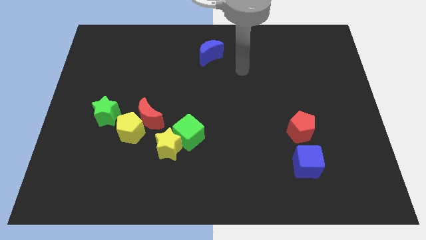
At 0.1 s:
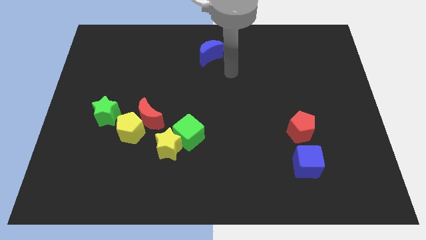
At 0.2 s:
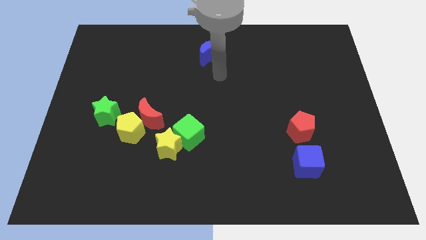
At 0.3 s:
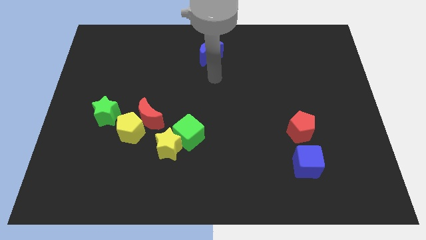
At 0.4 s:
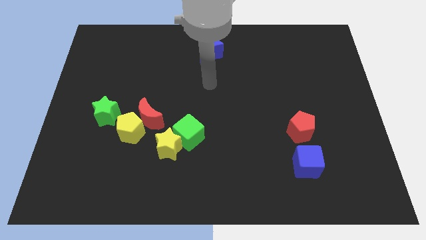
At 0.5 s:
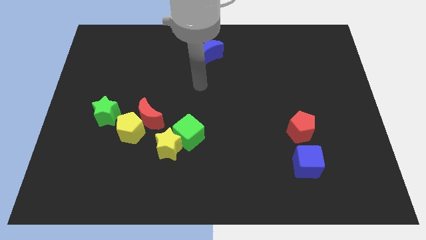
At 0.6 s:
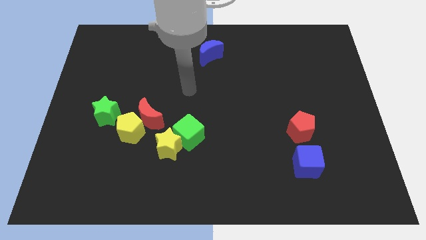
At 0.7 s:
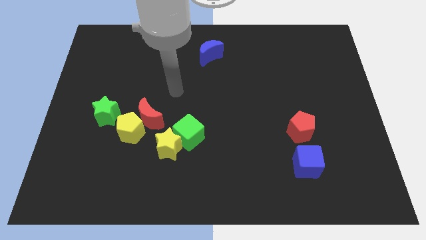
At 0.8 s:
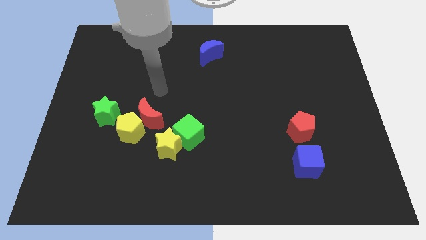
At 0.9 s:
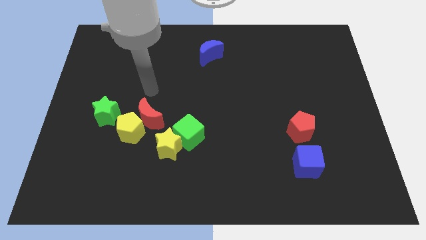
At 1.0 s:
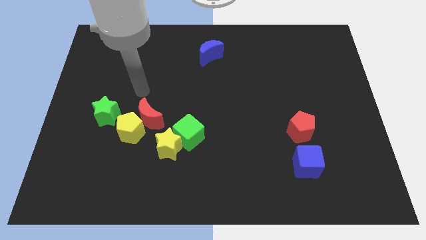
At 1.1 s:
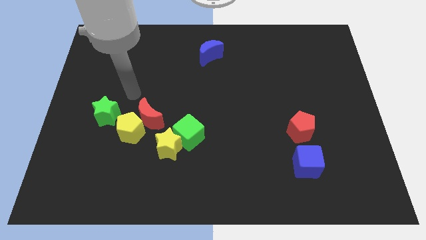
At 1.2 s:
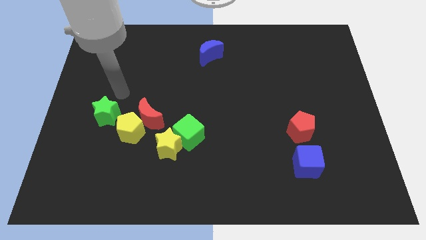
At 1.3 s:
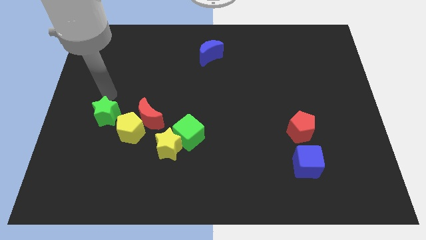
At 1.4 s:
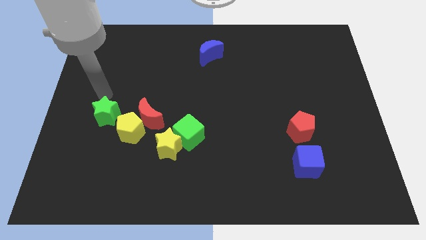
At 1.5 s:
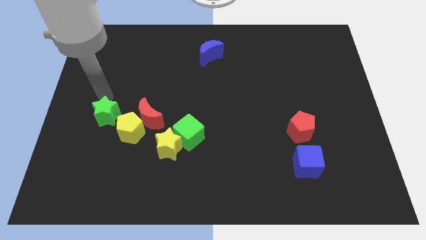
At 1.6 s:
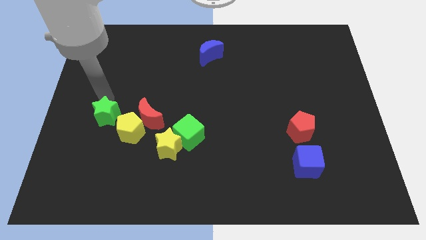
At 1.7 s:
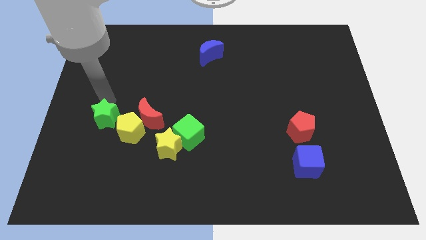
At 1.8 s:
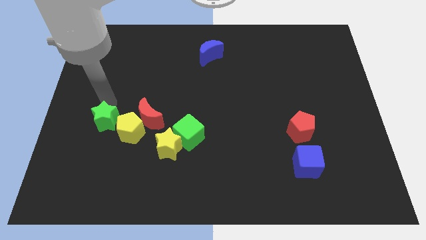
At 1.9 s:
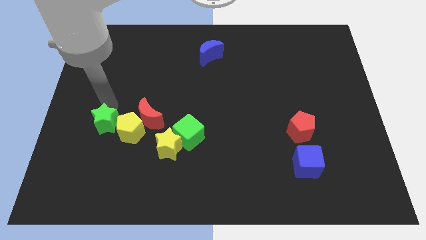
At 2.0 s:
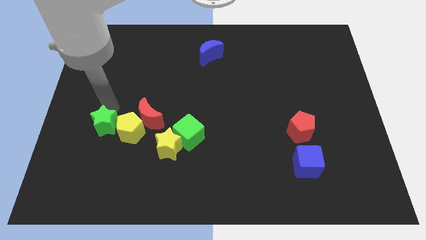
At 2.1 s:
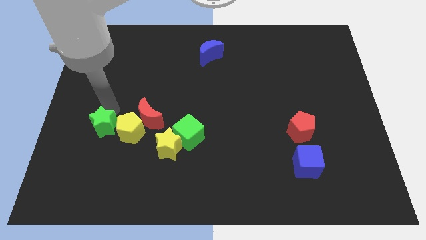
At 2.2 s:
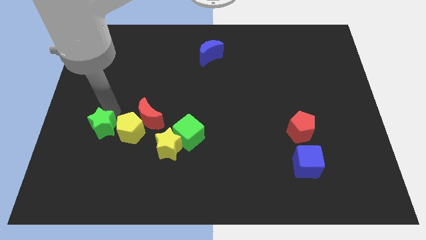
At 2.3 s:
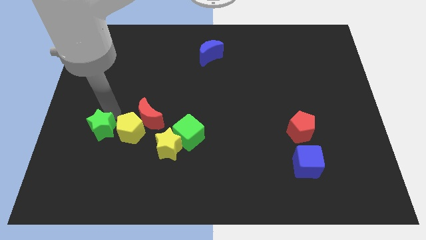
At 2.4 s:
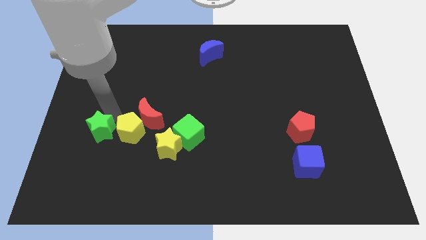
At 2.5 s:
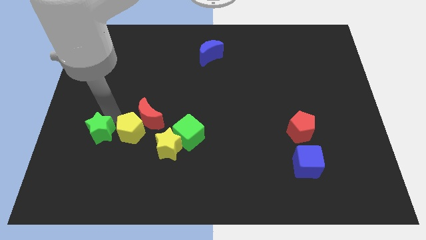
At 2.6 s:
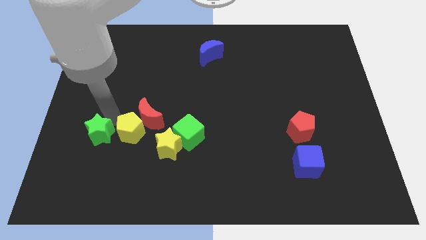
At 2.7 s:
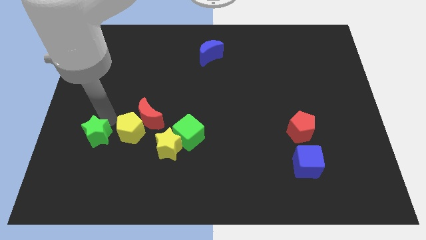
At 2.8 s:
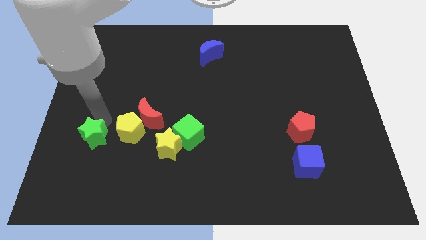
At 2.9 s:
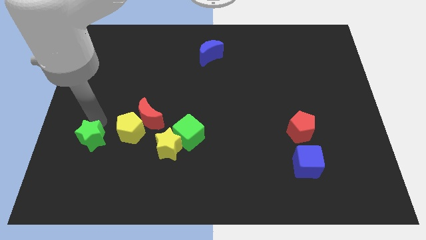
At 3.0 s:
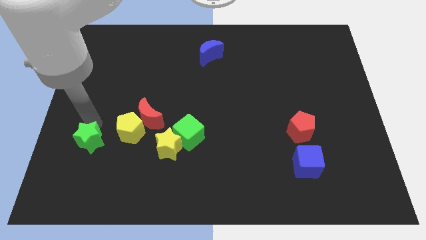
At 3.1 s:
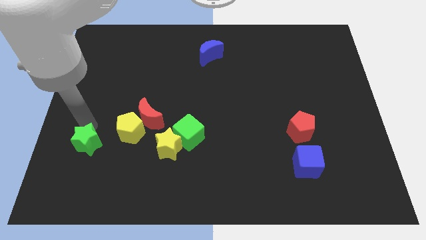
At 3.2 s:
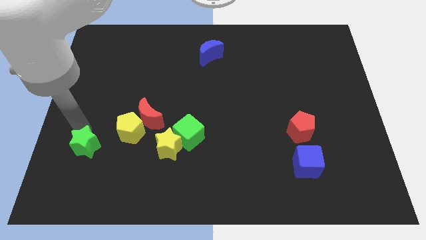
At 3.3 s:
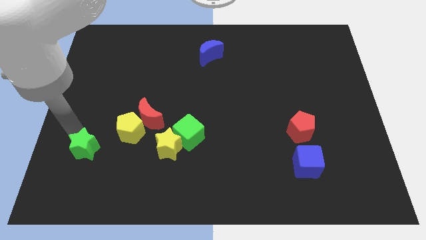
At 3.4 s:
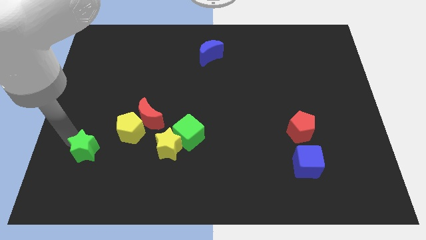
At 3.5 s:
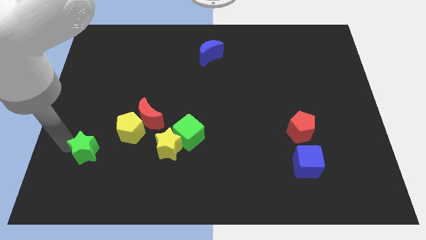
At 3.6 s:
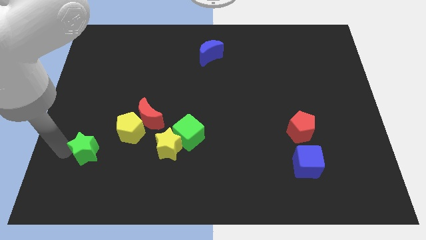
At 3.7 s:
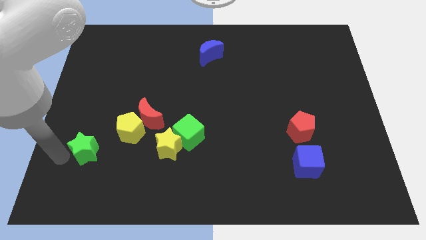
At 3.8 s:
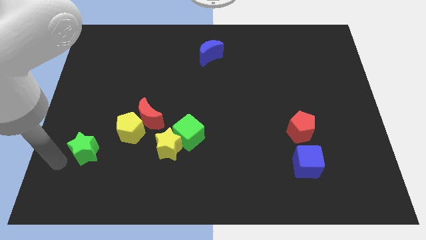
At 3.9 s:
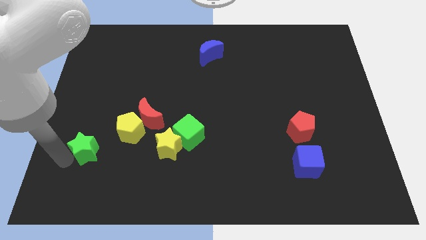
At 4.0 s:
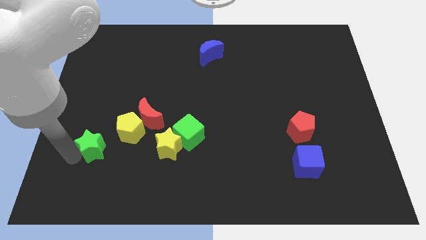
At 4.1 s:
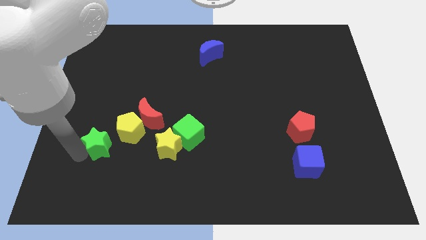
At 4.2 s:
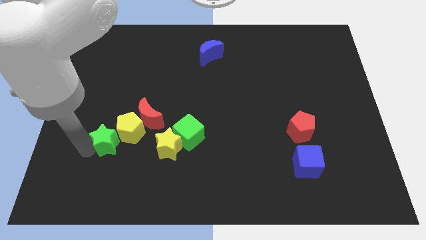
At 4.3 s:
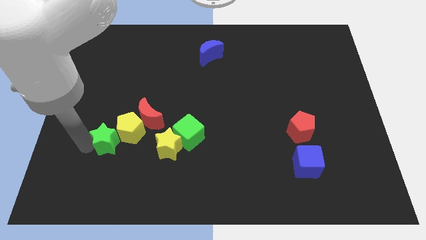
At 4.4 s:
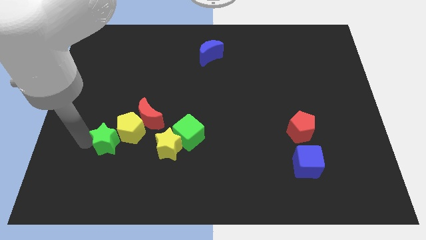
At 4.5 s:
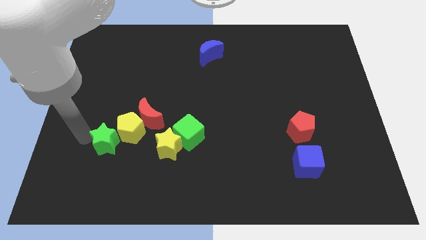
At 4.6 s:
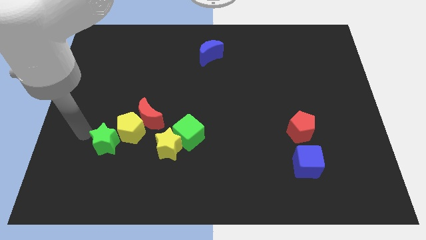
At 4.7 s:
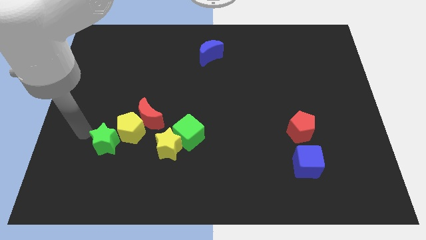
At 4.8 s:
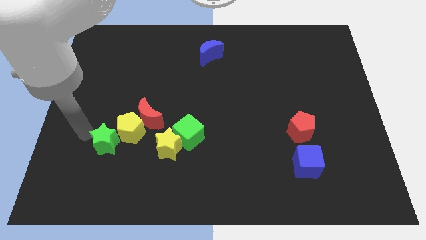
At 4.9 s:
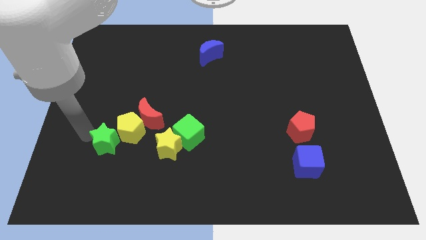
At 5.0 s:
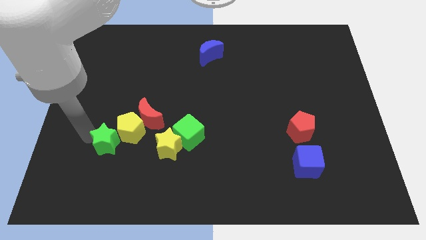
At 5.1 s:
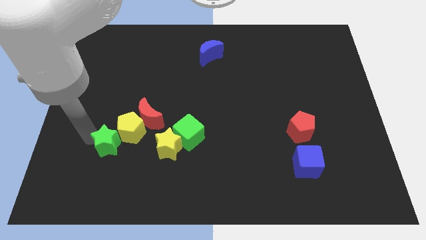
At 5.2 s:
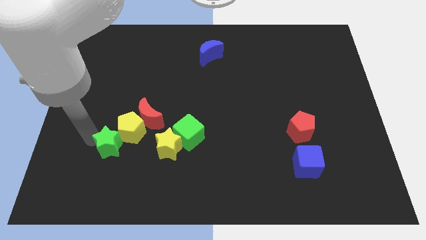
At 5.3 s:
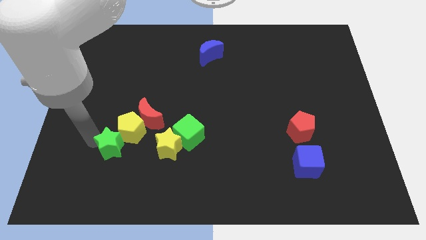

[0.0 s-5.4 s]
slightly push the green star downwards and right diagonally

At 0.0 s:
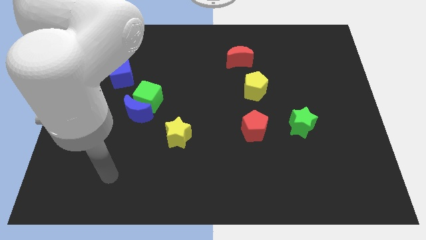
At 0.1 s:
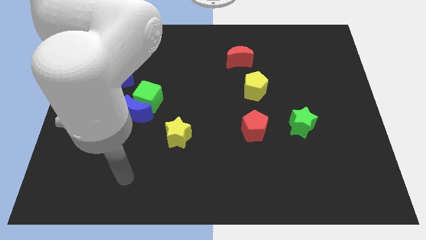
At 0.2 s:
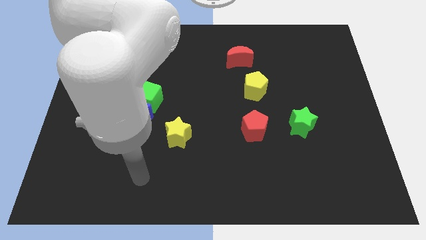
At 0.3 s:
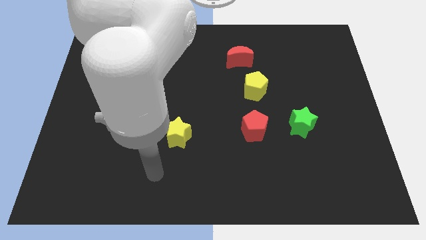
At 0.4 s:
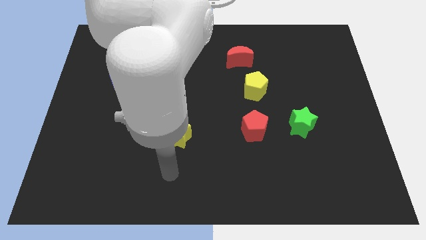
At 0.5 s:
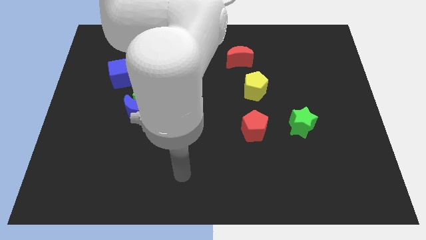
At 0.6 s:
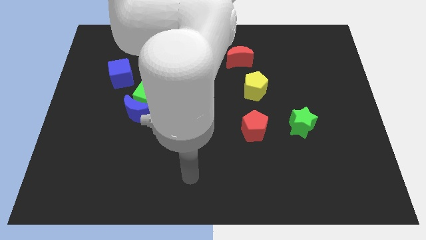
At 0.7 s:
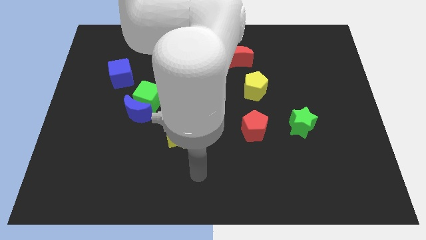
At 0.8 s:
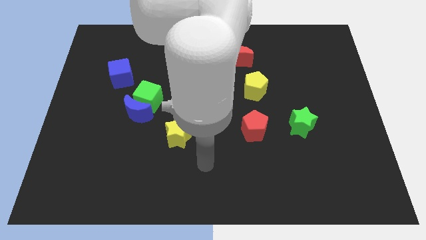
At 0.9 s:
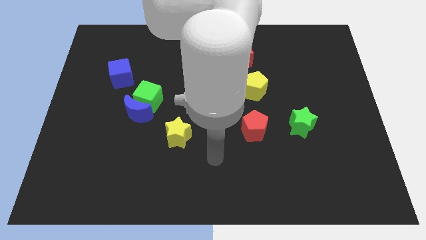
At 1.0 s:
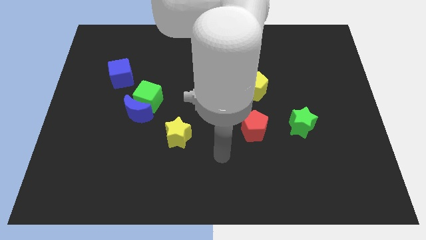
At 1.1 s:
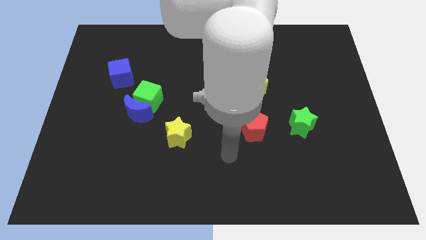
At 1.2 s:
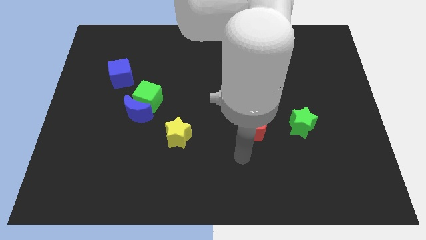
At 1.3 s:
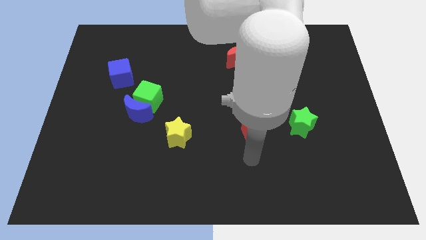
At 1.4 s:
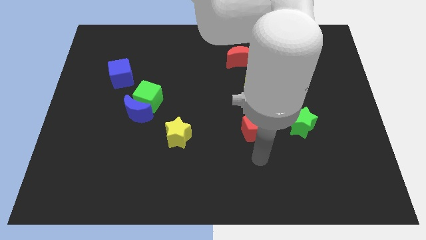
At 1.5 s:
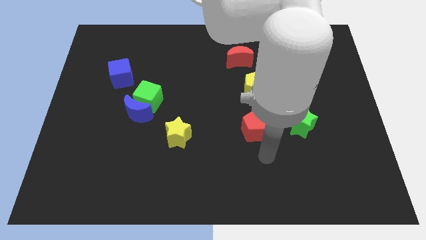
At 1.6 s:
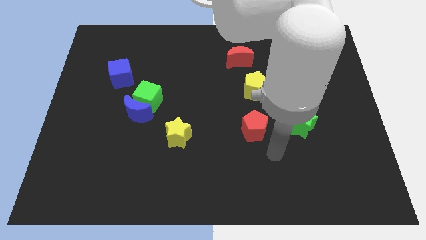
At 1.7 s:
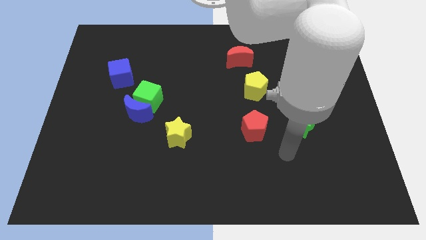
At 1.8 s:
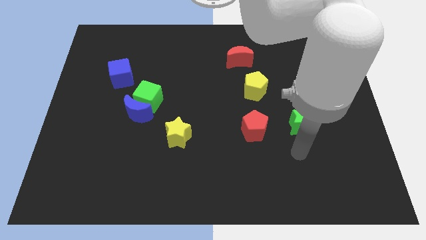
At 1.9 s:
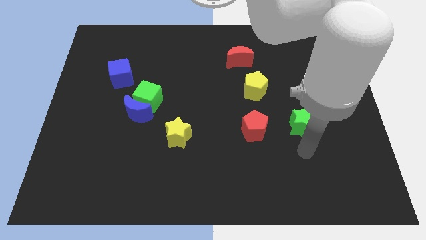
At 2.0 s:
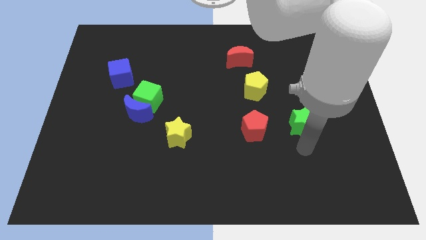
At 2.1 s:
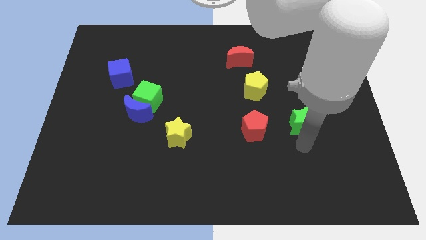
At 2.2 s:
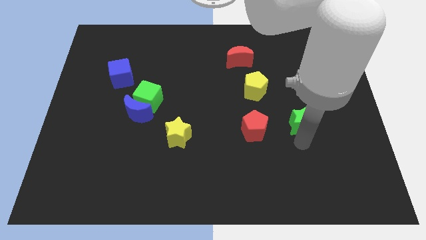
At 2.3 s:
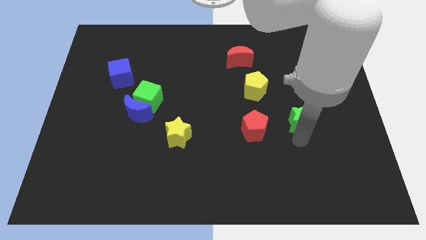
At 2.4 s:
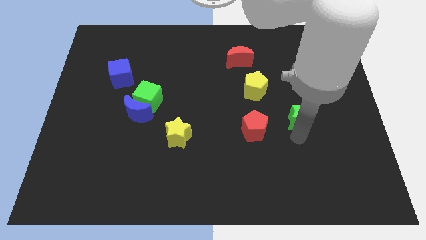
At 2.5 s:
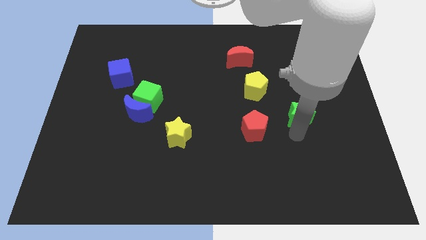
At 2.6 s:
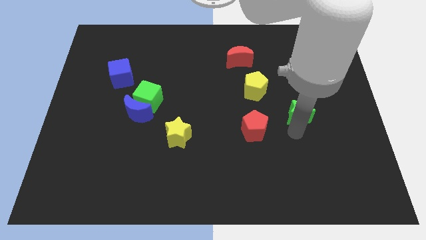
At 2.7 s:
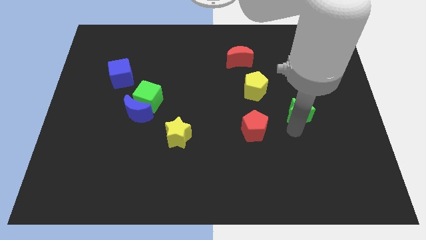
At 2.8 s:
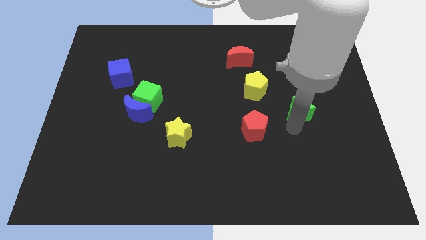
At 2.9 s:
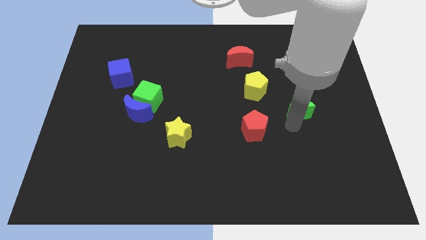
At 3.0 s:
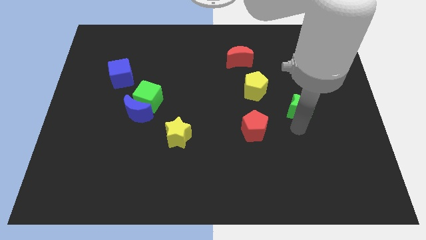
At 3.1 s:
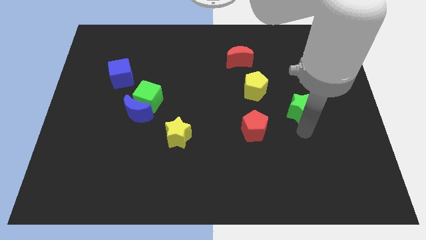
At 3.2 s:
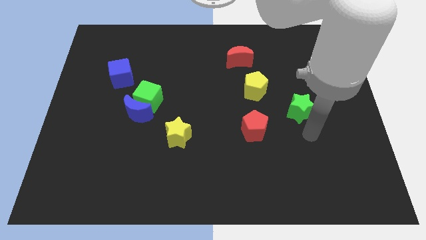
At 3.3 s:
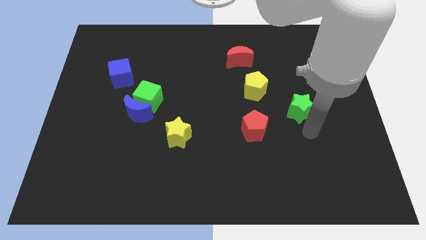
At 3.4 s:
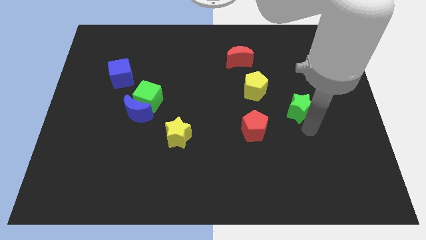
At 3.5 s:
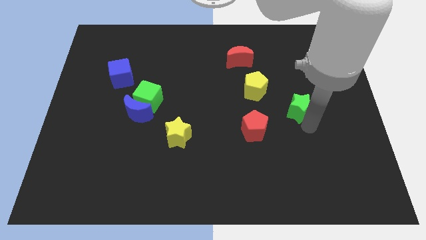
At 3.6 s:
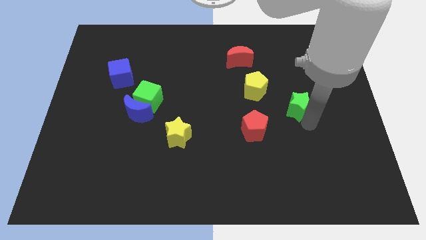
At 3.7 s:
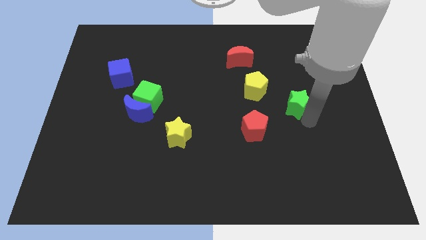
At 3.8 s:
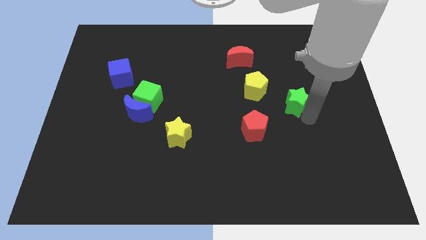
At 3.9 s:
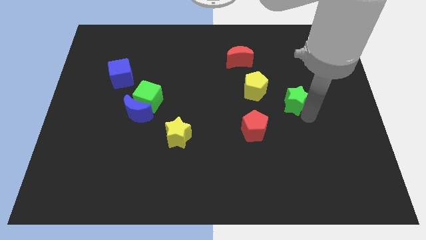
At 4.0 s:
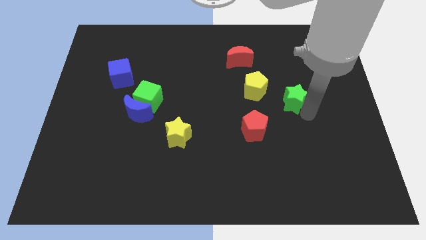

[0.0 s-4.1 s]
slightly move the green star up
